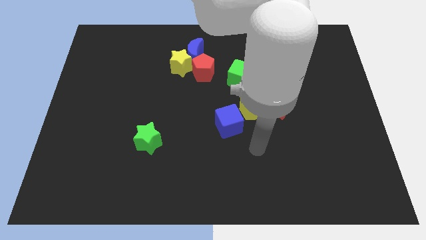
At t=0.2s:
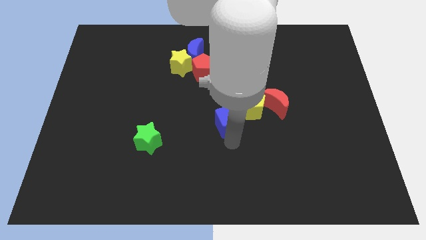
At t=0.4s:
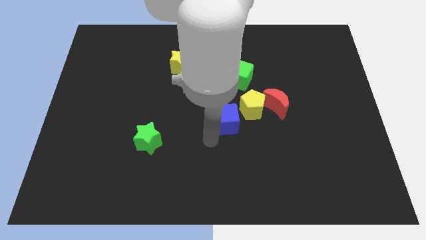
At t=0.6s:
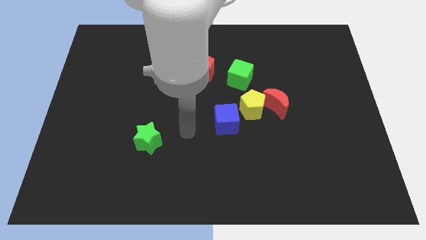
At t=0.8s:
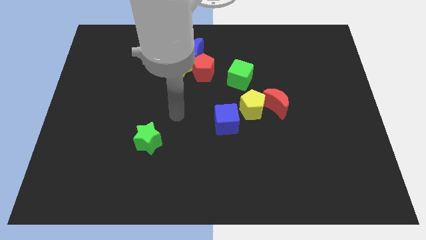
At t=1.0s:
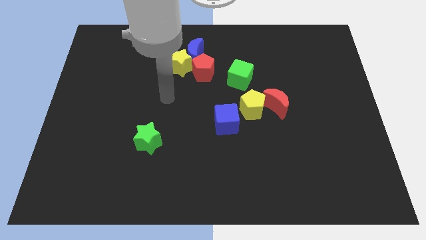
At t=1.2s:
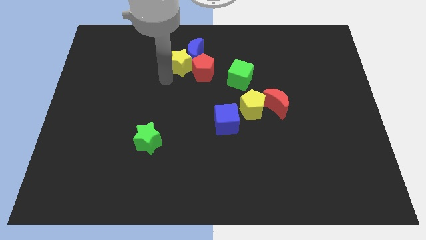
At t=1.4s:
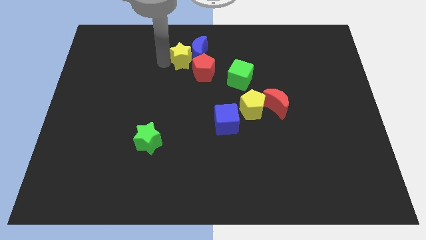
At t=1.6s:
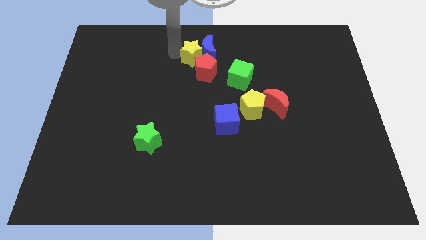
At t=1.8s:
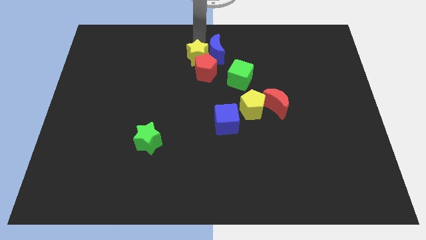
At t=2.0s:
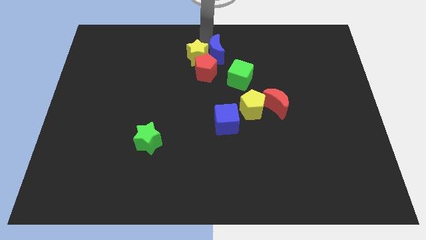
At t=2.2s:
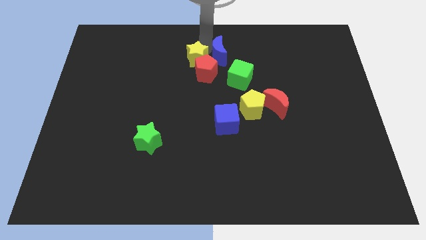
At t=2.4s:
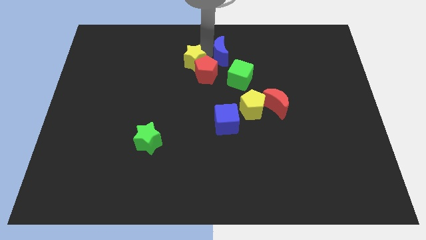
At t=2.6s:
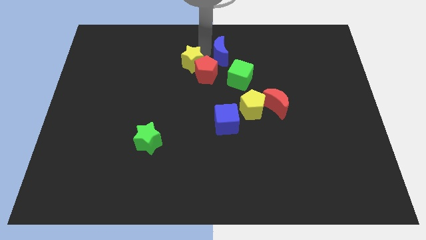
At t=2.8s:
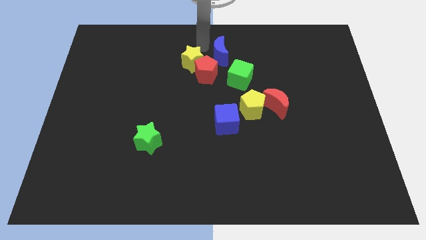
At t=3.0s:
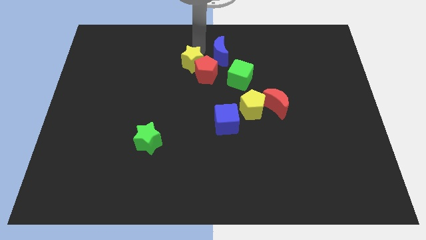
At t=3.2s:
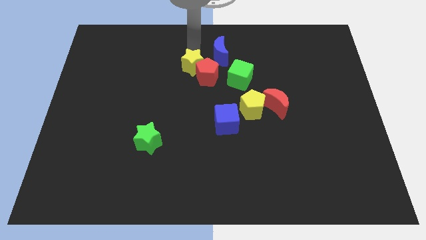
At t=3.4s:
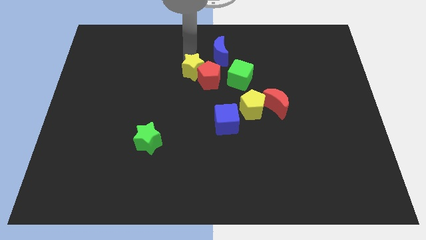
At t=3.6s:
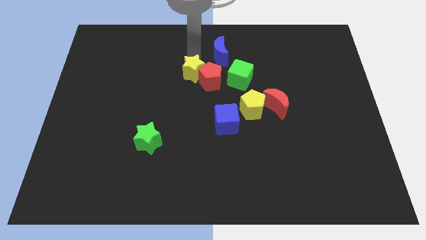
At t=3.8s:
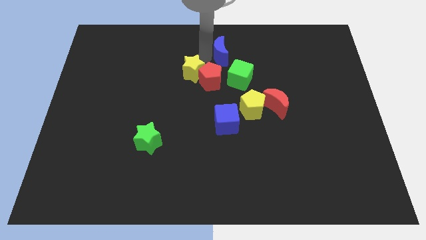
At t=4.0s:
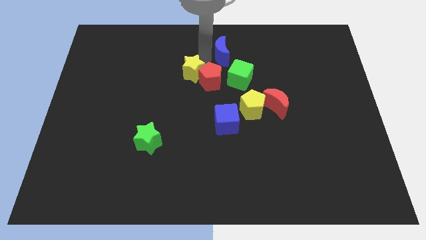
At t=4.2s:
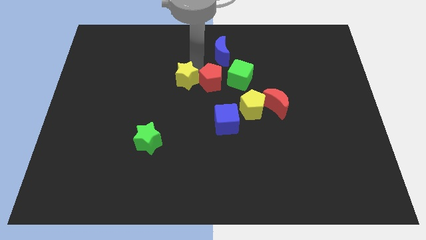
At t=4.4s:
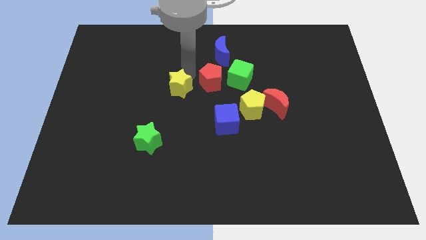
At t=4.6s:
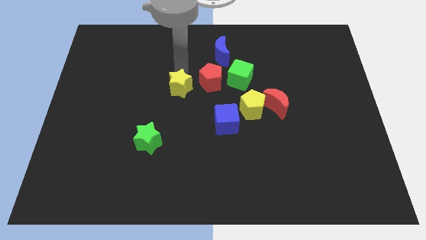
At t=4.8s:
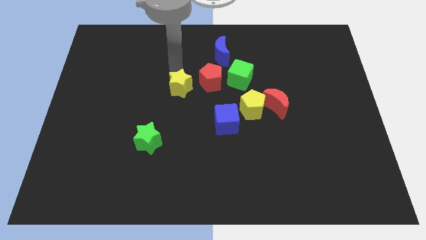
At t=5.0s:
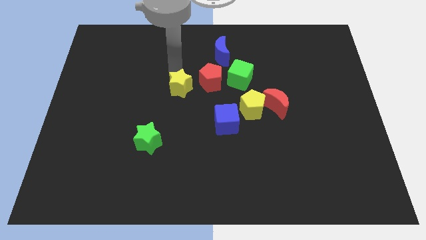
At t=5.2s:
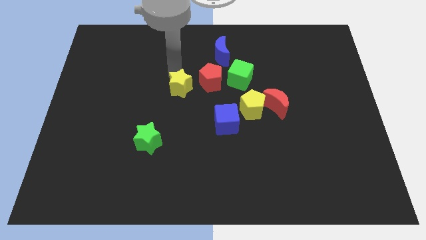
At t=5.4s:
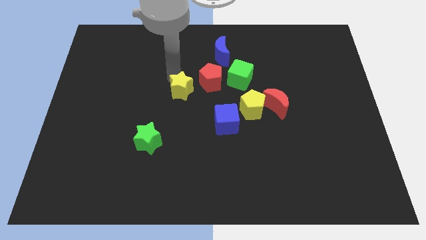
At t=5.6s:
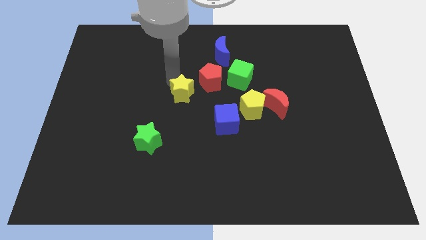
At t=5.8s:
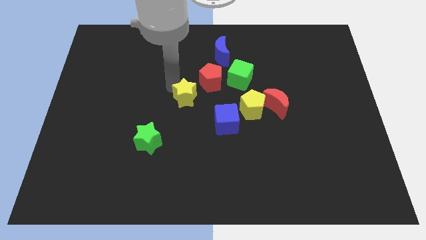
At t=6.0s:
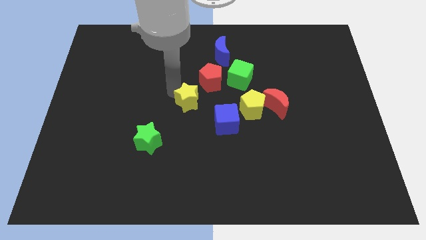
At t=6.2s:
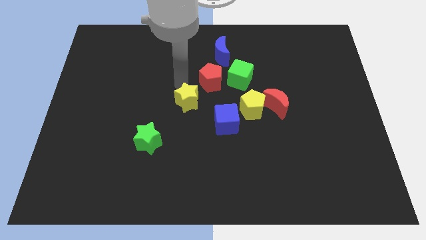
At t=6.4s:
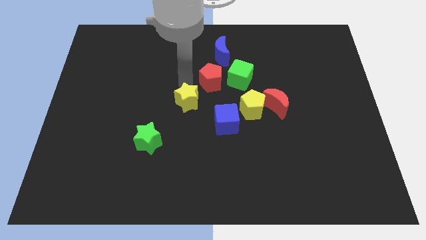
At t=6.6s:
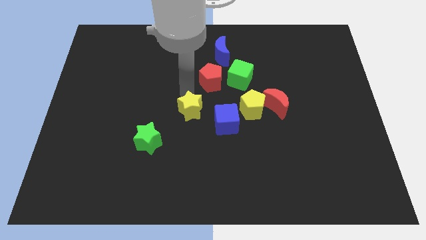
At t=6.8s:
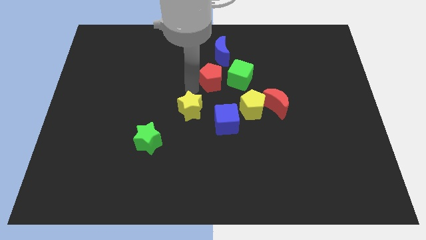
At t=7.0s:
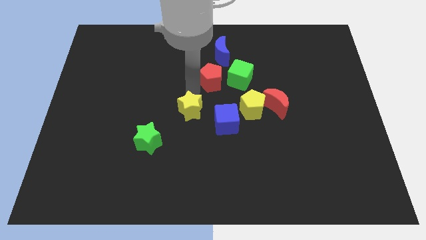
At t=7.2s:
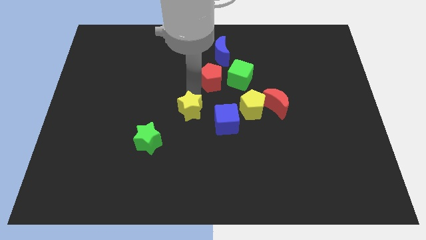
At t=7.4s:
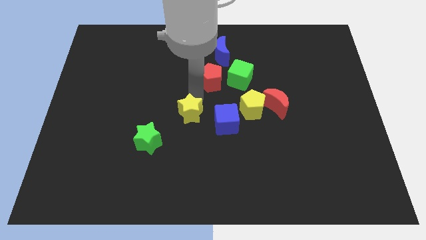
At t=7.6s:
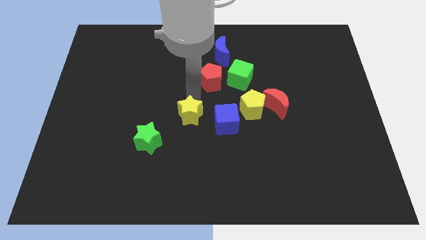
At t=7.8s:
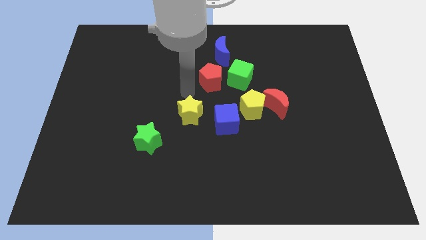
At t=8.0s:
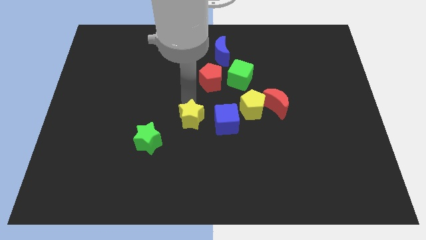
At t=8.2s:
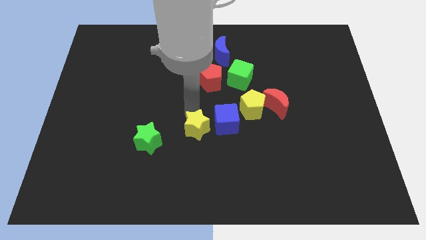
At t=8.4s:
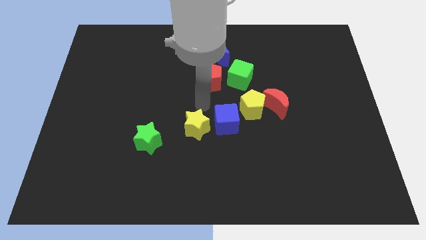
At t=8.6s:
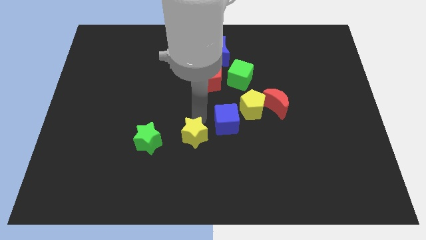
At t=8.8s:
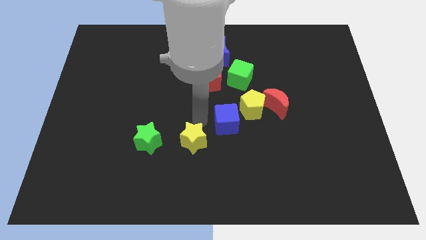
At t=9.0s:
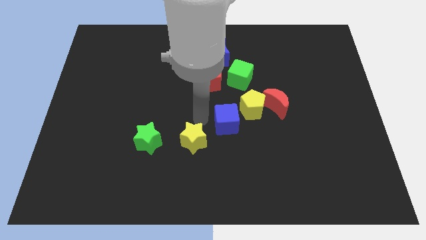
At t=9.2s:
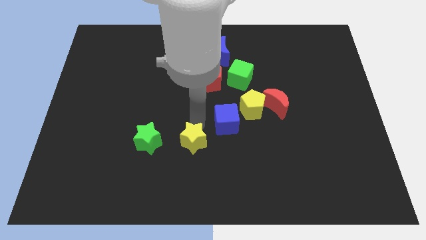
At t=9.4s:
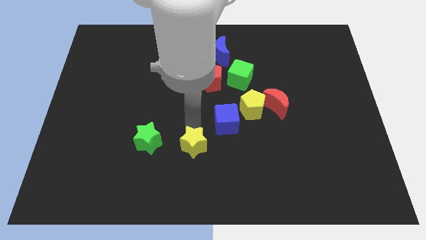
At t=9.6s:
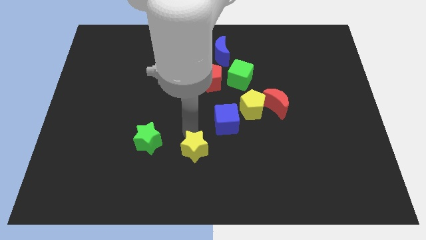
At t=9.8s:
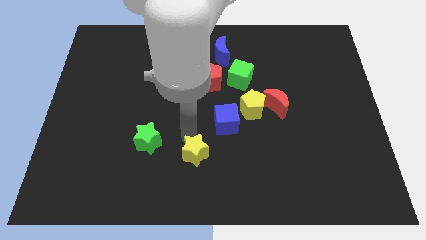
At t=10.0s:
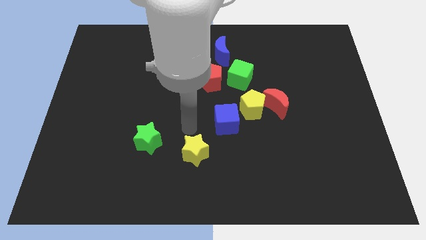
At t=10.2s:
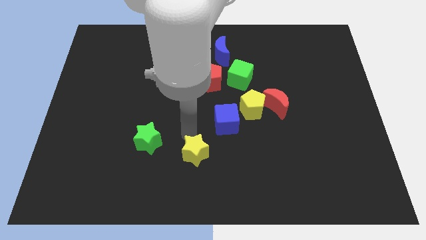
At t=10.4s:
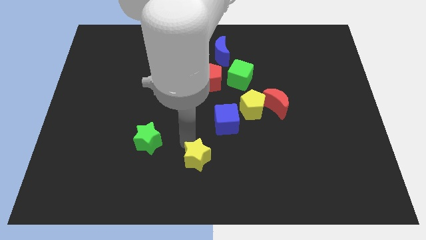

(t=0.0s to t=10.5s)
slide the yellow star to the bottom side

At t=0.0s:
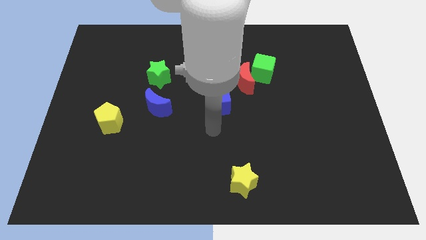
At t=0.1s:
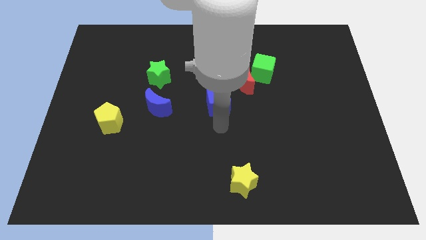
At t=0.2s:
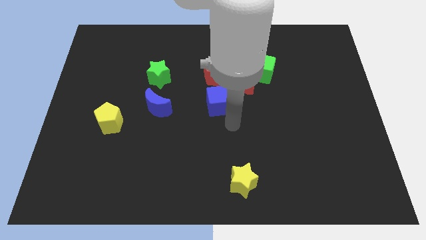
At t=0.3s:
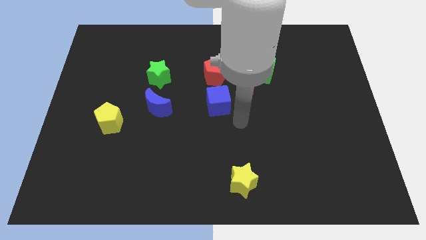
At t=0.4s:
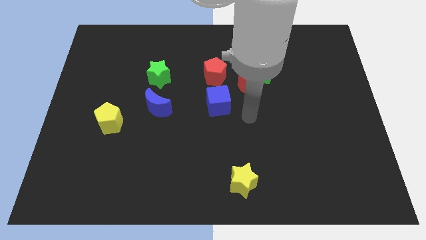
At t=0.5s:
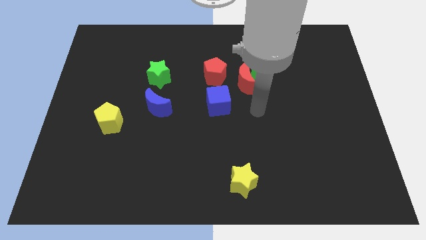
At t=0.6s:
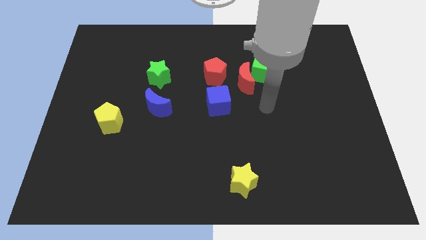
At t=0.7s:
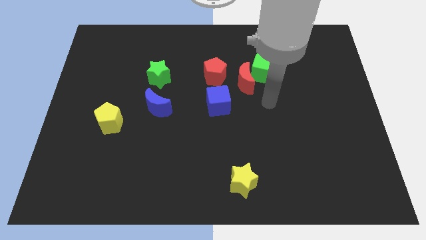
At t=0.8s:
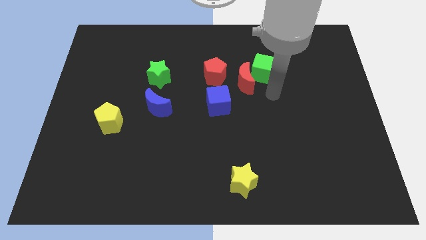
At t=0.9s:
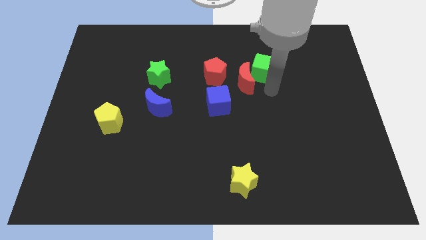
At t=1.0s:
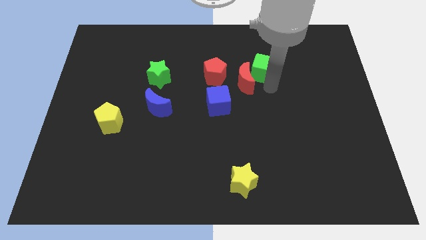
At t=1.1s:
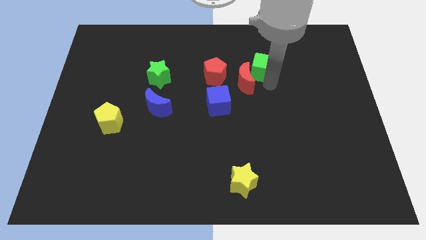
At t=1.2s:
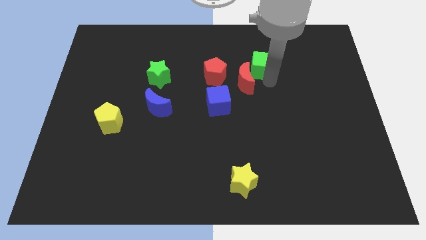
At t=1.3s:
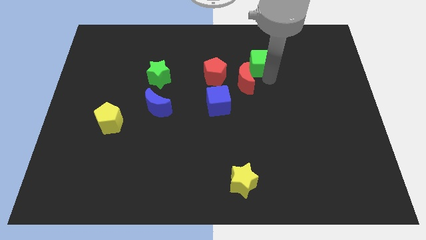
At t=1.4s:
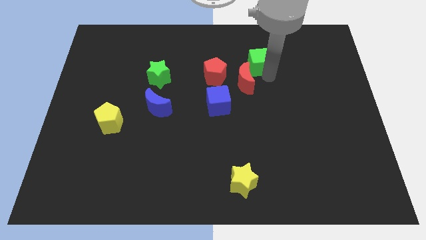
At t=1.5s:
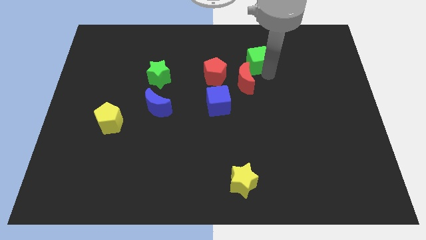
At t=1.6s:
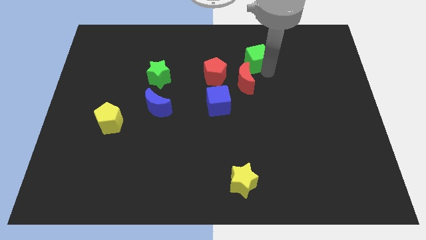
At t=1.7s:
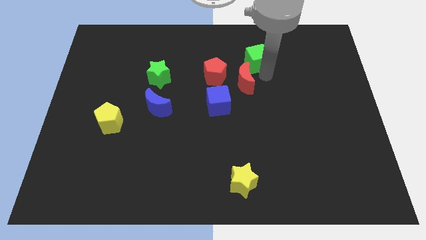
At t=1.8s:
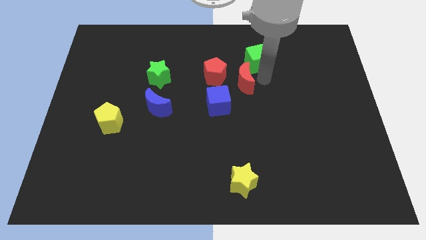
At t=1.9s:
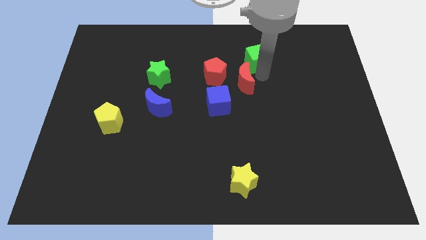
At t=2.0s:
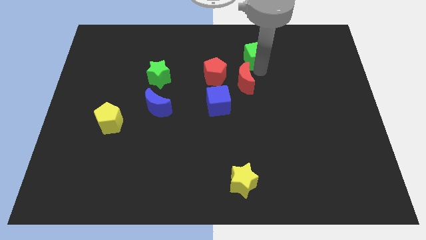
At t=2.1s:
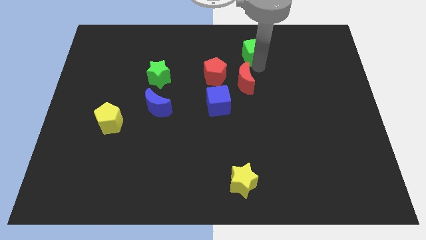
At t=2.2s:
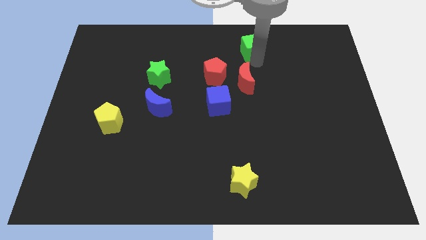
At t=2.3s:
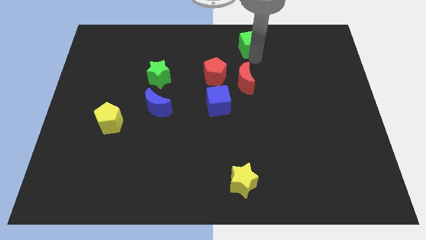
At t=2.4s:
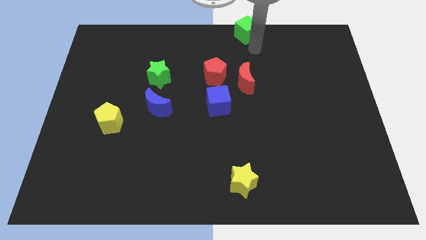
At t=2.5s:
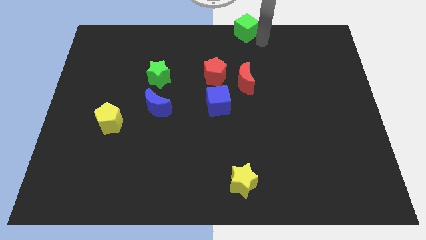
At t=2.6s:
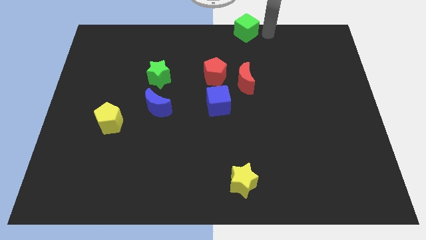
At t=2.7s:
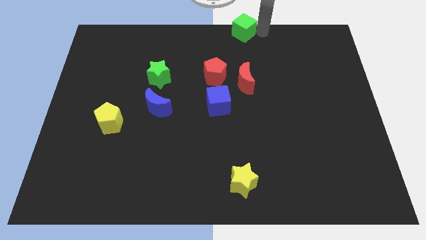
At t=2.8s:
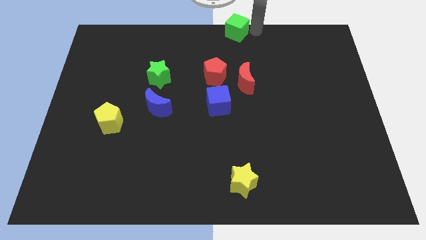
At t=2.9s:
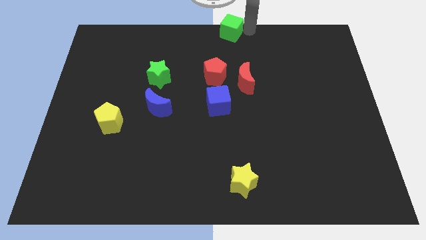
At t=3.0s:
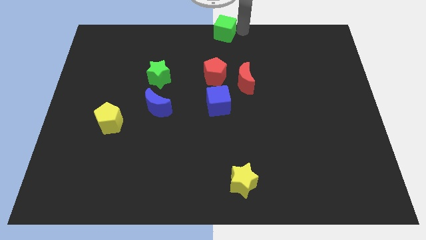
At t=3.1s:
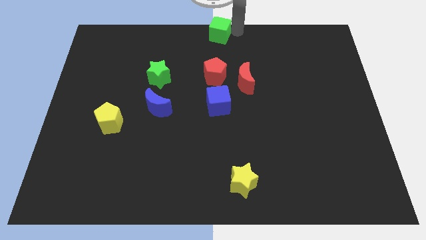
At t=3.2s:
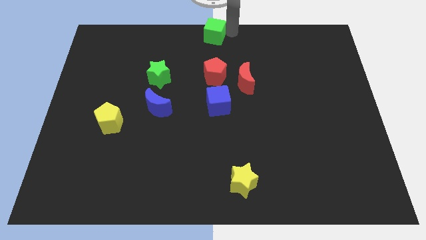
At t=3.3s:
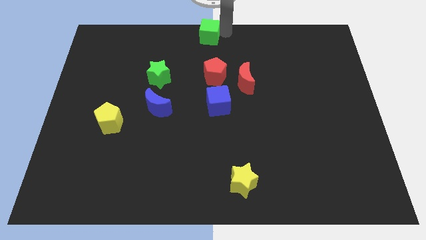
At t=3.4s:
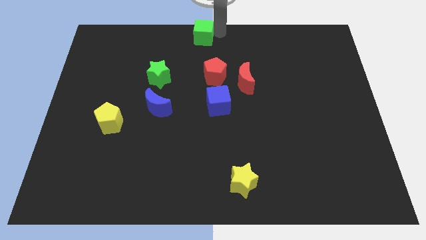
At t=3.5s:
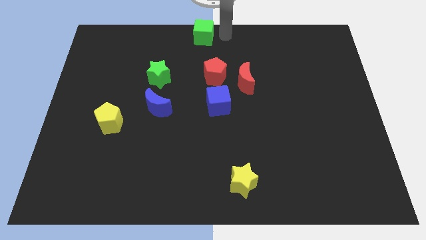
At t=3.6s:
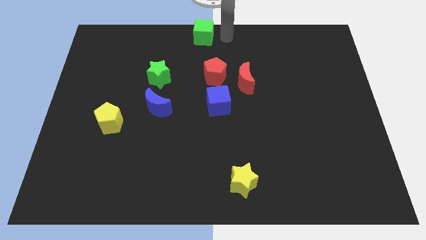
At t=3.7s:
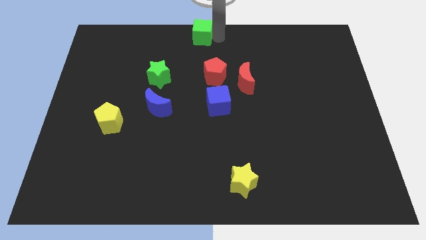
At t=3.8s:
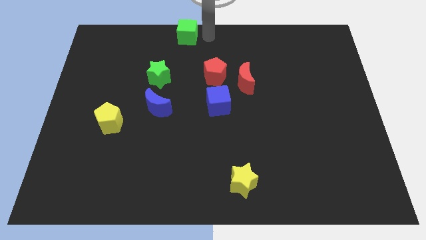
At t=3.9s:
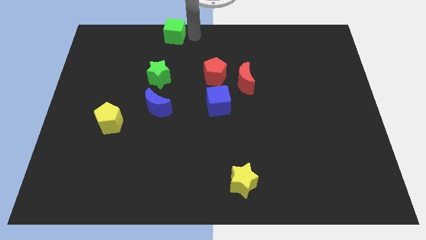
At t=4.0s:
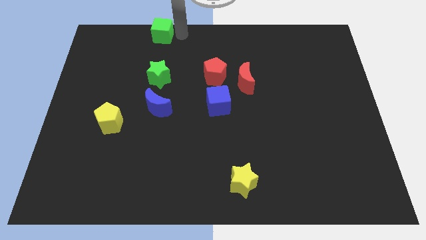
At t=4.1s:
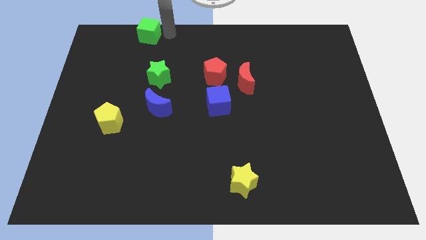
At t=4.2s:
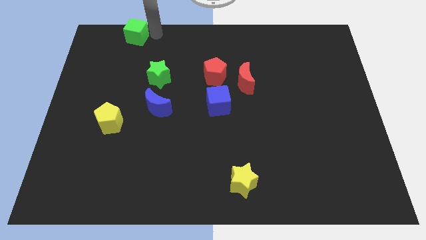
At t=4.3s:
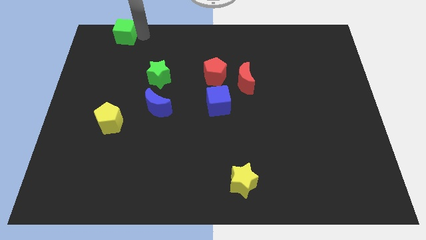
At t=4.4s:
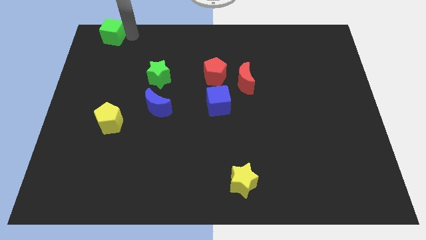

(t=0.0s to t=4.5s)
put the green cube to the upper left corner
